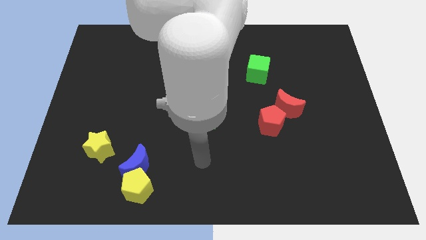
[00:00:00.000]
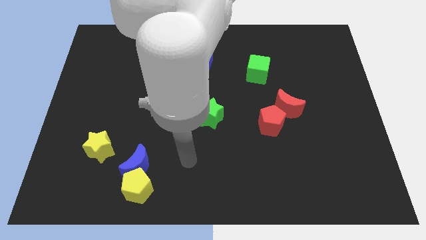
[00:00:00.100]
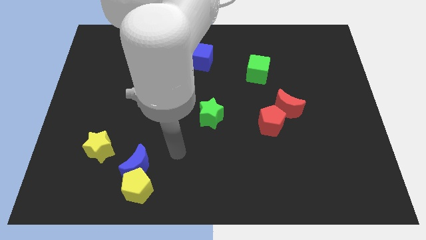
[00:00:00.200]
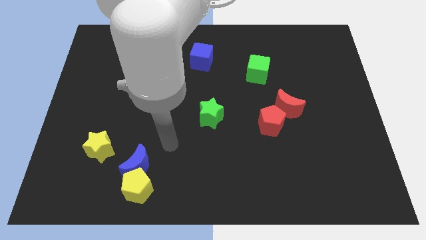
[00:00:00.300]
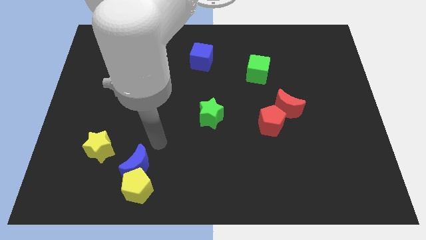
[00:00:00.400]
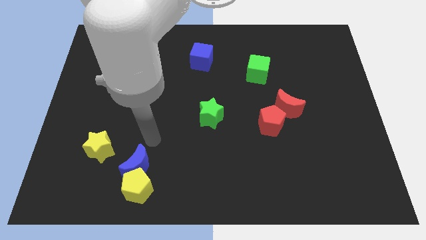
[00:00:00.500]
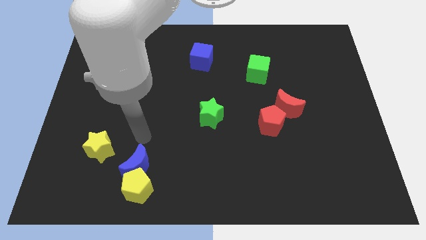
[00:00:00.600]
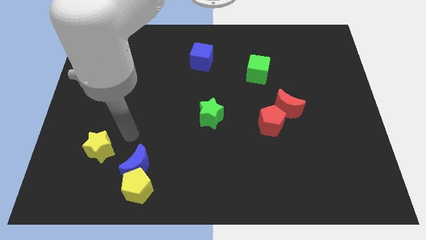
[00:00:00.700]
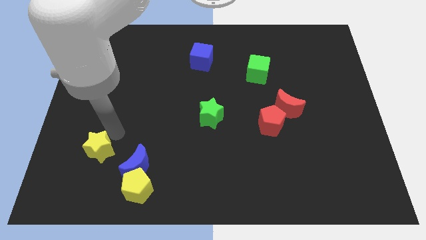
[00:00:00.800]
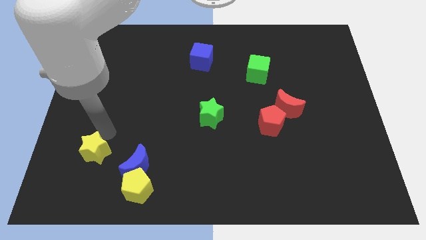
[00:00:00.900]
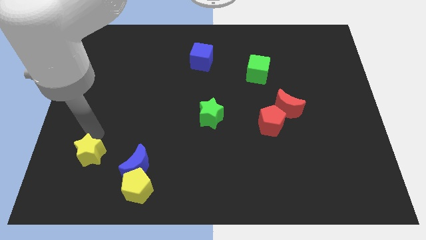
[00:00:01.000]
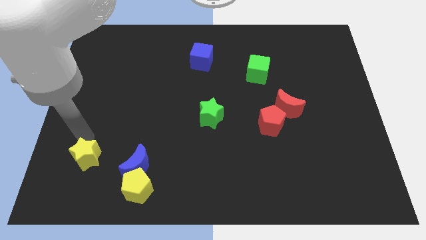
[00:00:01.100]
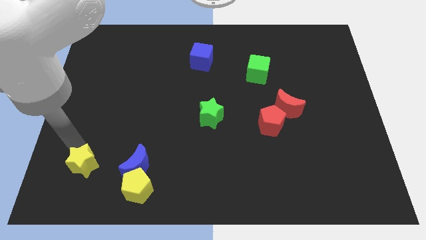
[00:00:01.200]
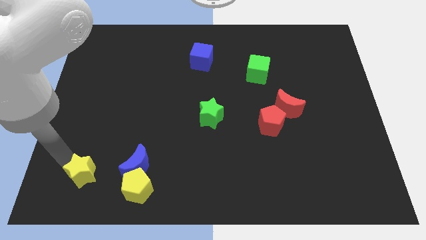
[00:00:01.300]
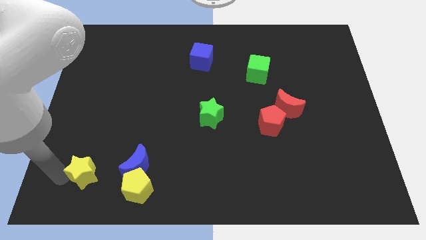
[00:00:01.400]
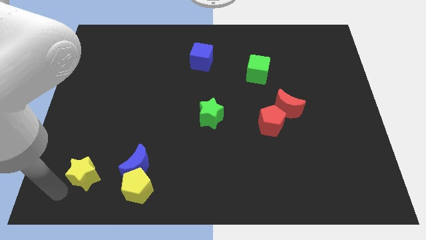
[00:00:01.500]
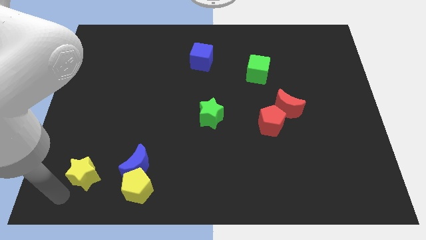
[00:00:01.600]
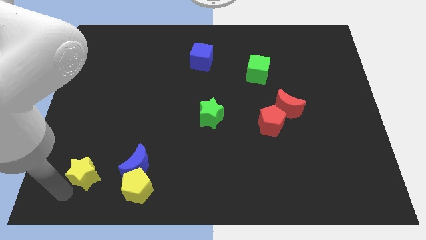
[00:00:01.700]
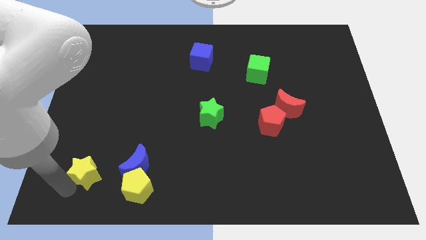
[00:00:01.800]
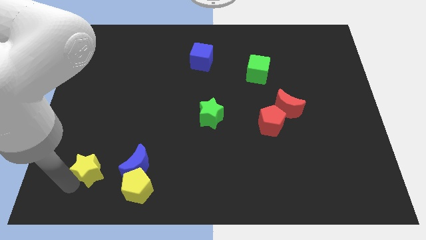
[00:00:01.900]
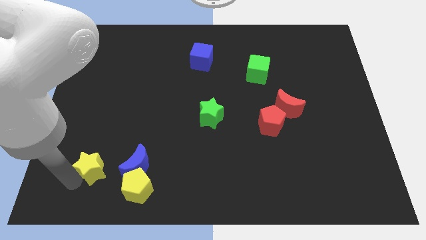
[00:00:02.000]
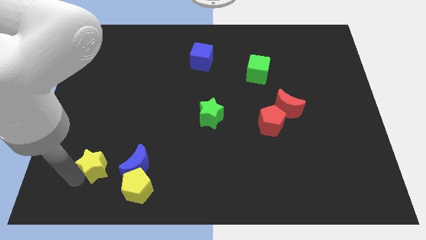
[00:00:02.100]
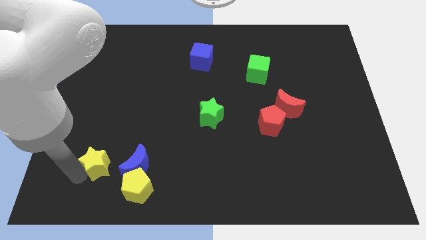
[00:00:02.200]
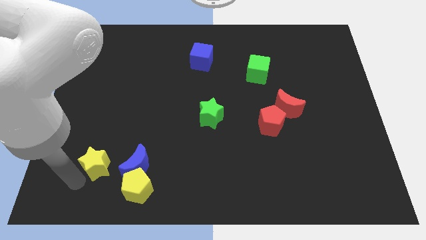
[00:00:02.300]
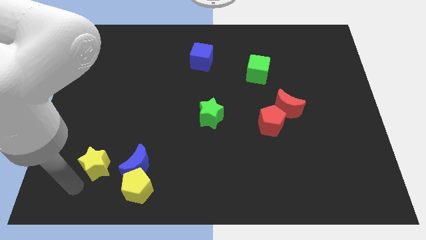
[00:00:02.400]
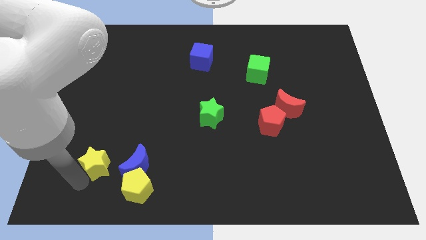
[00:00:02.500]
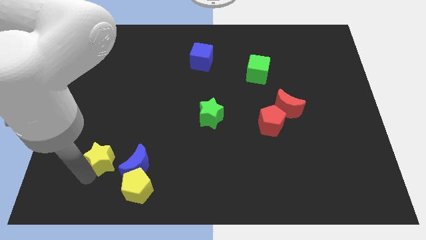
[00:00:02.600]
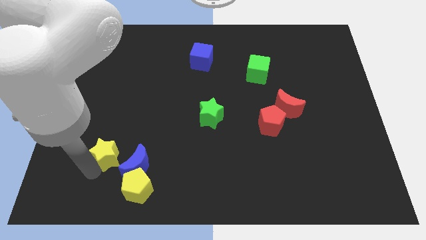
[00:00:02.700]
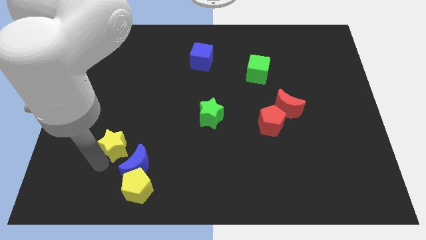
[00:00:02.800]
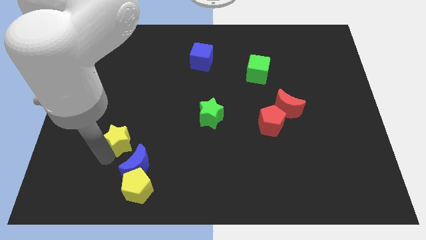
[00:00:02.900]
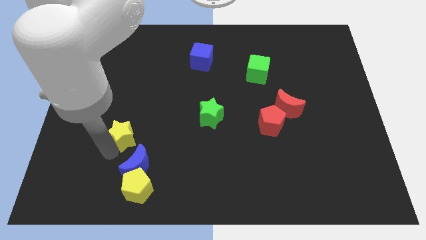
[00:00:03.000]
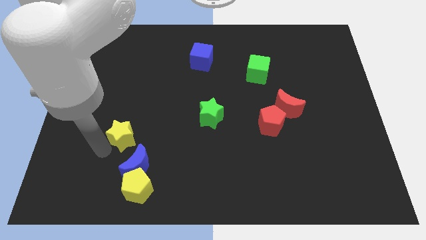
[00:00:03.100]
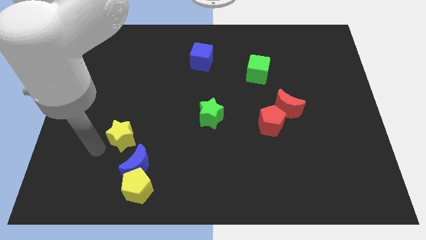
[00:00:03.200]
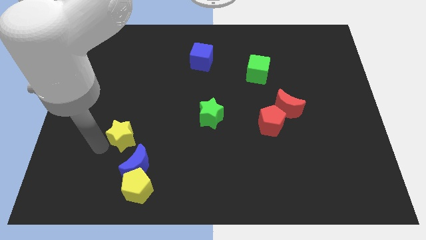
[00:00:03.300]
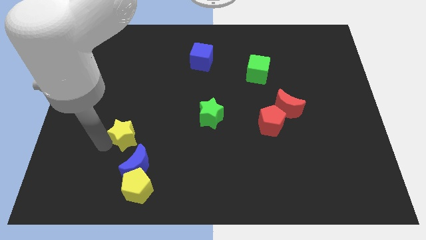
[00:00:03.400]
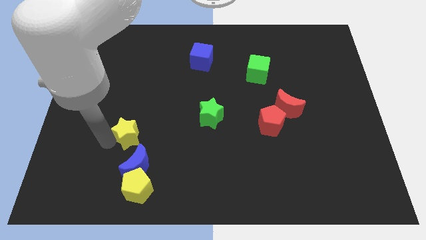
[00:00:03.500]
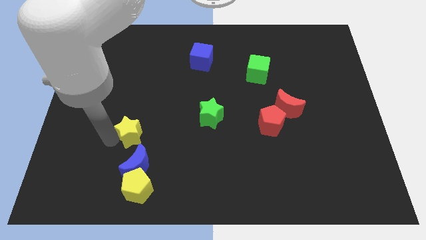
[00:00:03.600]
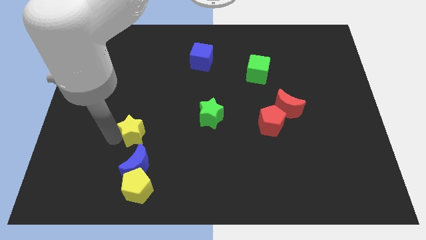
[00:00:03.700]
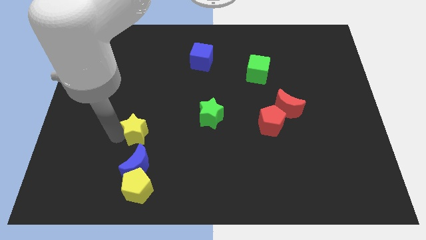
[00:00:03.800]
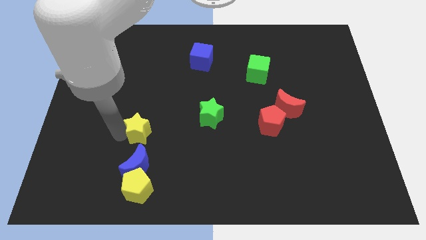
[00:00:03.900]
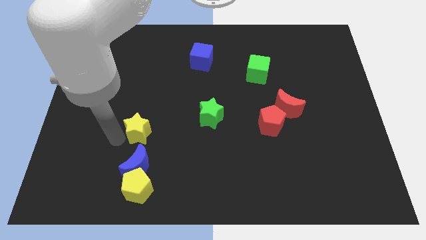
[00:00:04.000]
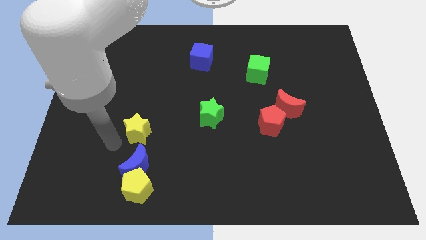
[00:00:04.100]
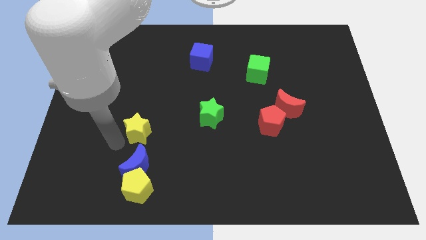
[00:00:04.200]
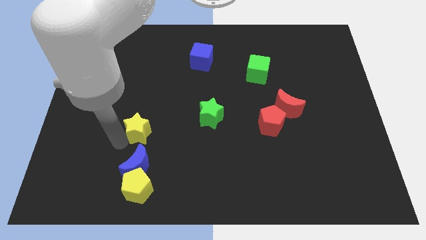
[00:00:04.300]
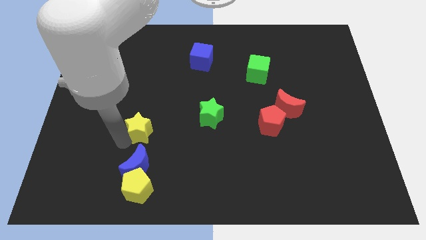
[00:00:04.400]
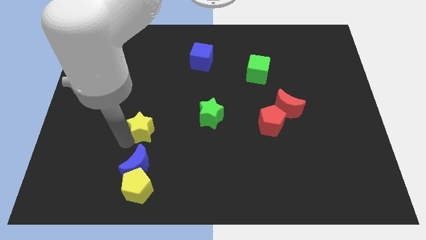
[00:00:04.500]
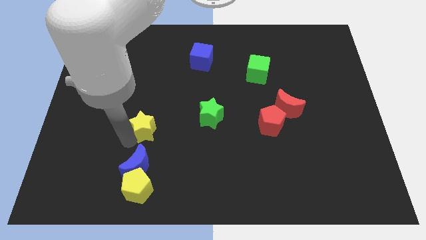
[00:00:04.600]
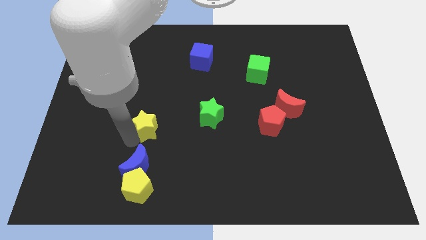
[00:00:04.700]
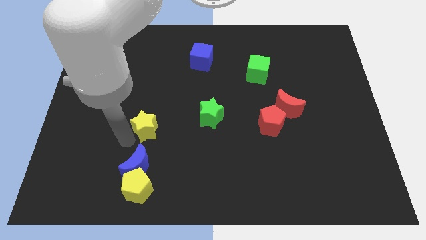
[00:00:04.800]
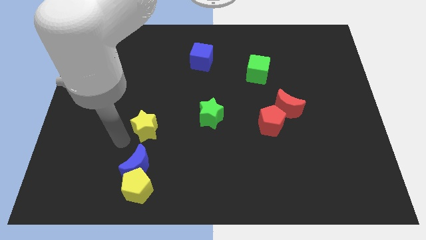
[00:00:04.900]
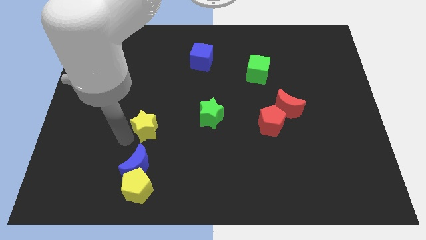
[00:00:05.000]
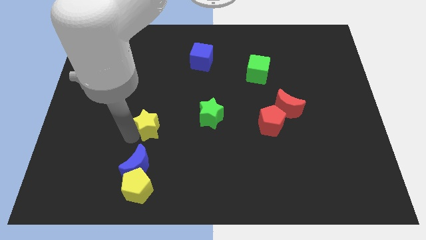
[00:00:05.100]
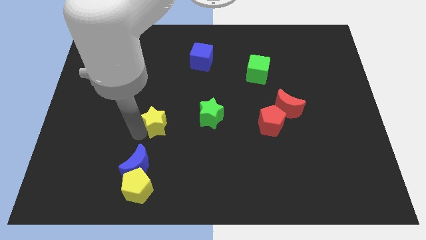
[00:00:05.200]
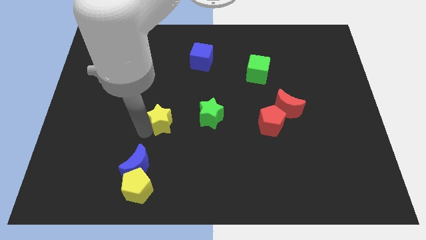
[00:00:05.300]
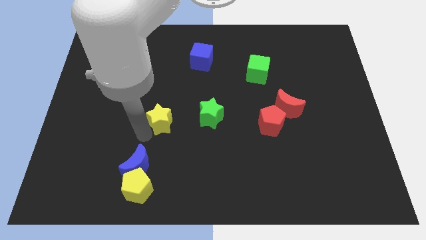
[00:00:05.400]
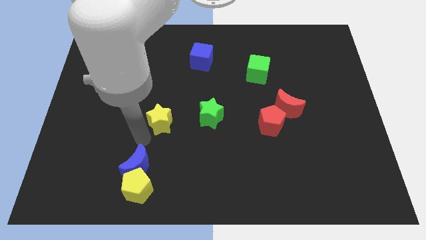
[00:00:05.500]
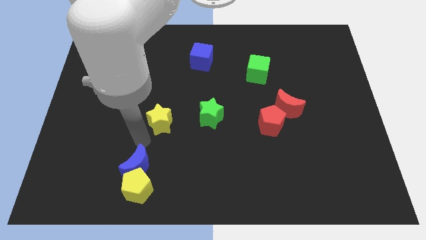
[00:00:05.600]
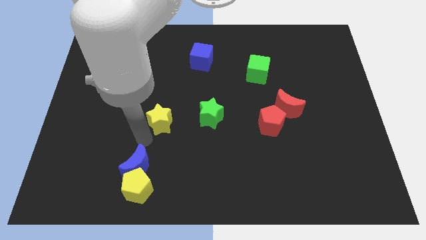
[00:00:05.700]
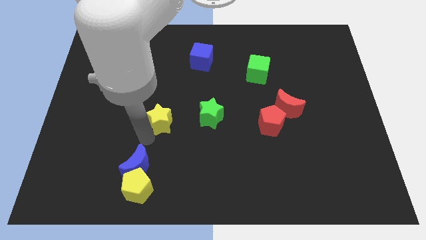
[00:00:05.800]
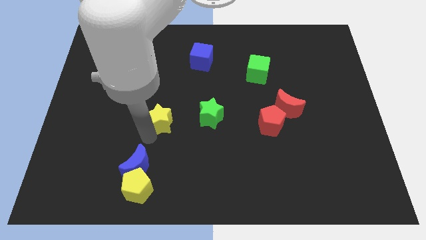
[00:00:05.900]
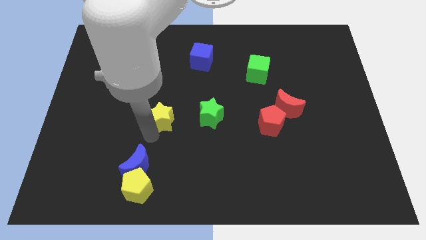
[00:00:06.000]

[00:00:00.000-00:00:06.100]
move the yellow star to the center of the board

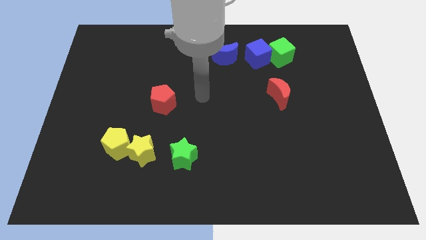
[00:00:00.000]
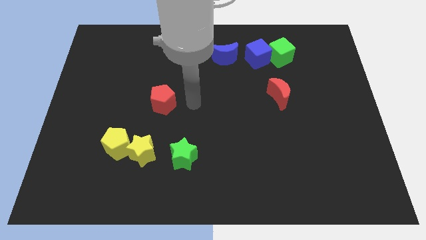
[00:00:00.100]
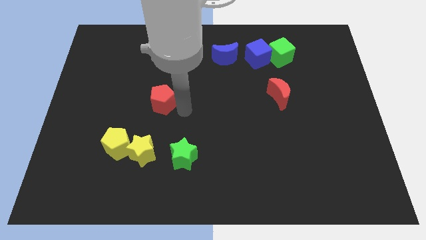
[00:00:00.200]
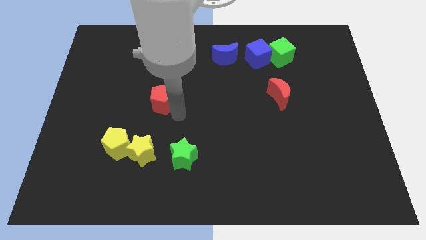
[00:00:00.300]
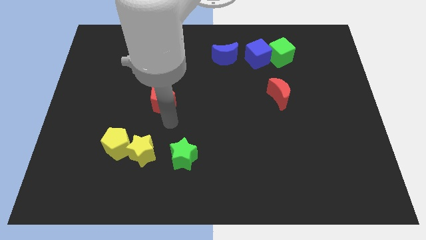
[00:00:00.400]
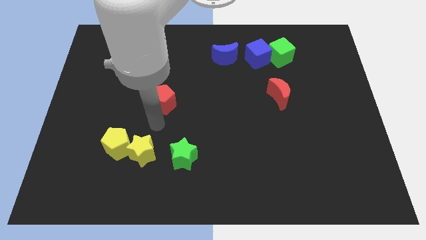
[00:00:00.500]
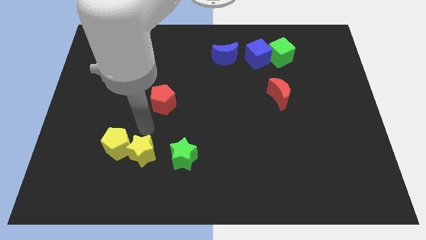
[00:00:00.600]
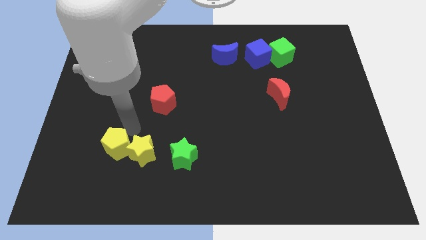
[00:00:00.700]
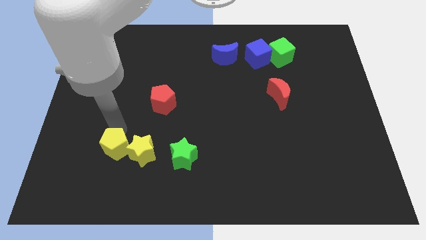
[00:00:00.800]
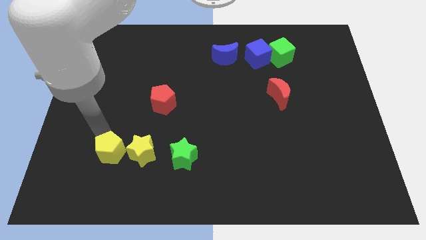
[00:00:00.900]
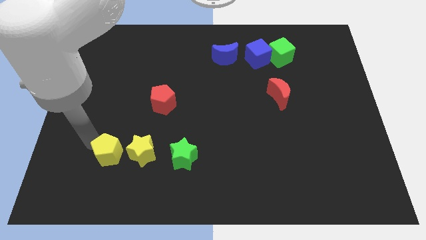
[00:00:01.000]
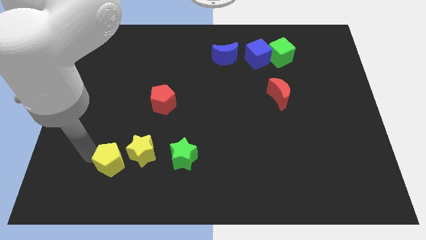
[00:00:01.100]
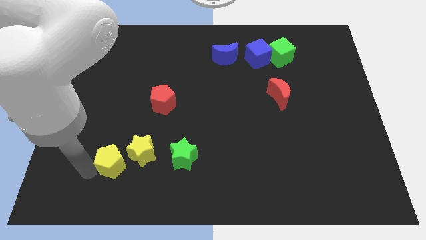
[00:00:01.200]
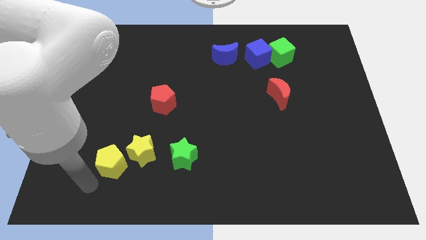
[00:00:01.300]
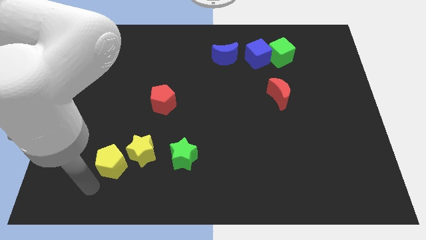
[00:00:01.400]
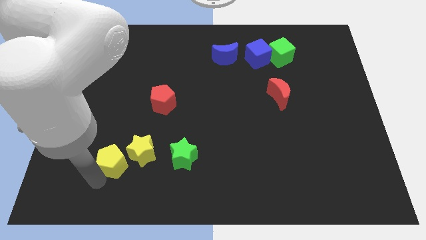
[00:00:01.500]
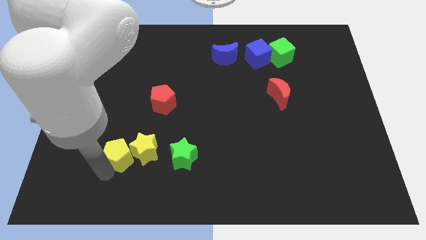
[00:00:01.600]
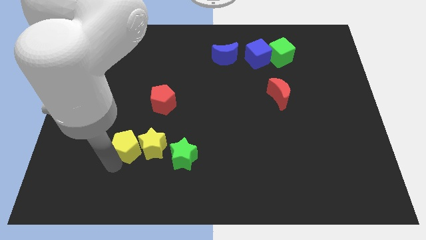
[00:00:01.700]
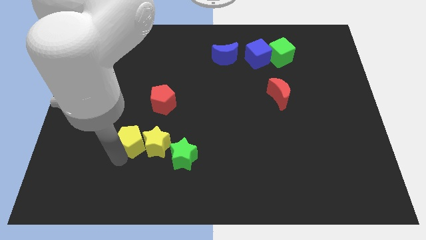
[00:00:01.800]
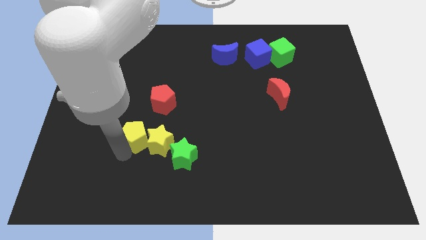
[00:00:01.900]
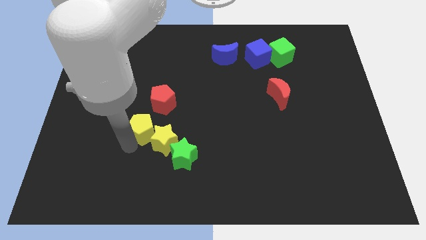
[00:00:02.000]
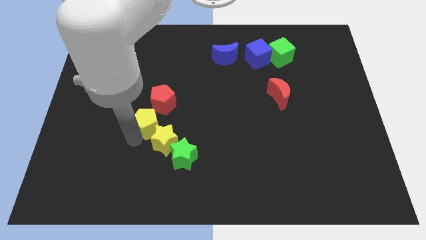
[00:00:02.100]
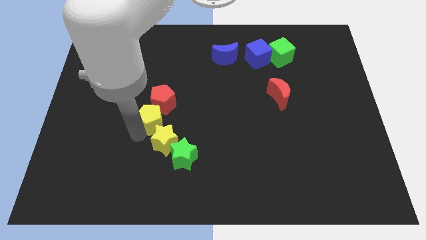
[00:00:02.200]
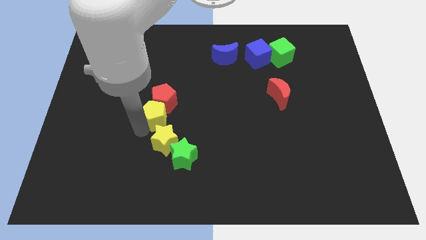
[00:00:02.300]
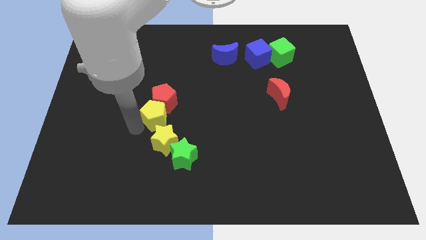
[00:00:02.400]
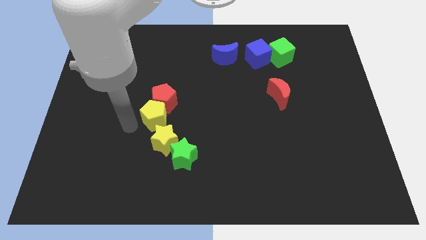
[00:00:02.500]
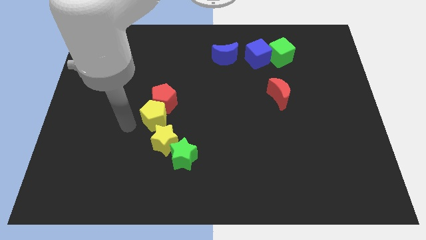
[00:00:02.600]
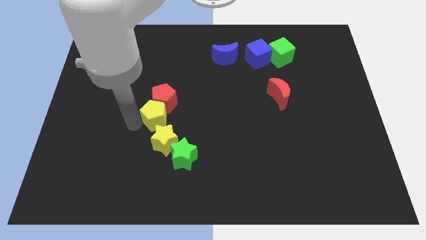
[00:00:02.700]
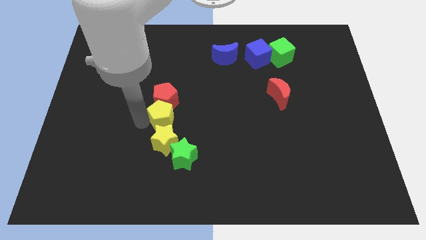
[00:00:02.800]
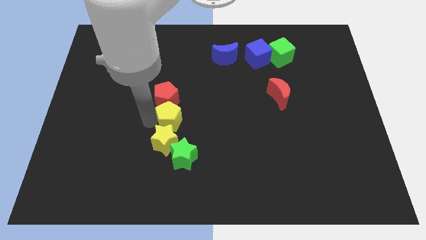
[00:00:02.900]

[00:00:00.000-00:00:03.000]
move the yellow pentagon to the center of the board
